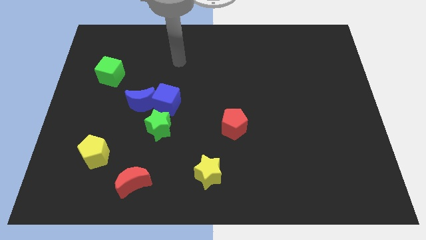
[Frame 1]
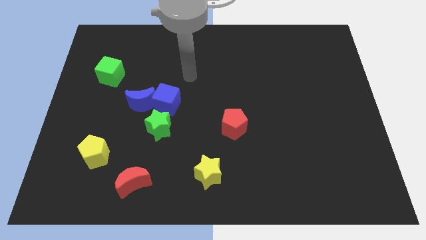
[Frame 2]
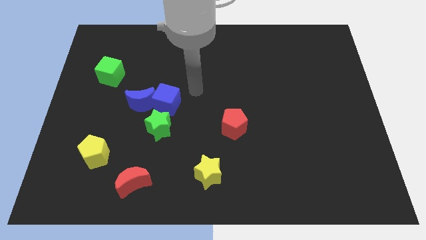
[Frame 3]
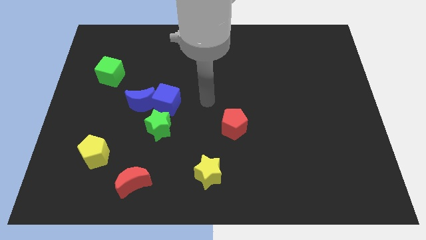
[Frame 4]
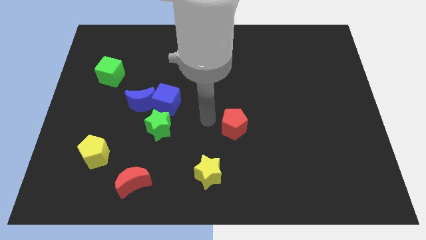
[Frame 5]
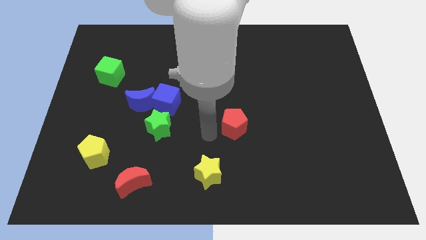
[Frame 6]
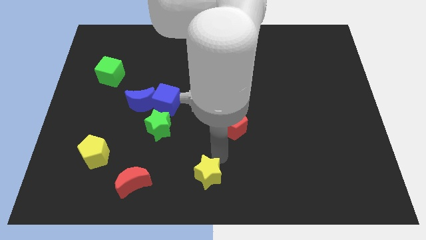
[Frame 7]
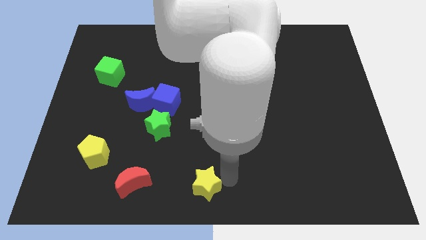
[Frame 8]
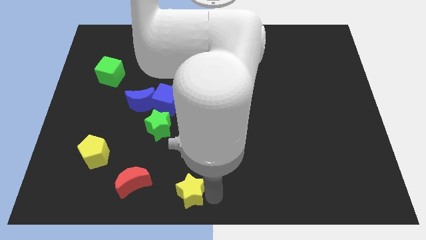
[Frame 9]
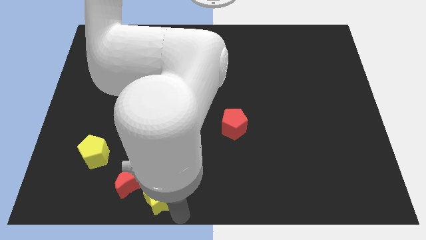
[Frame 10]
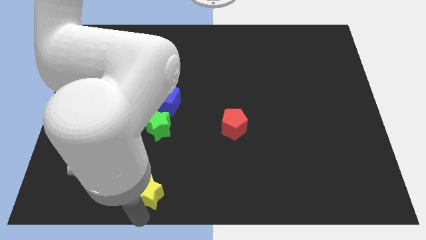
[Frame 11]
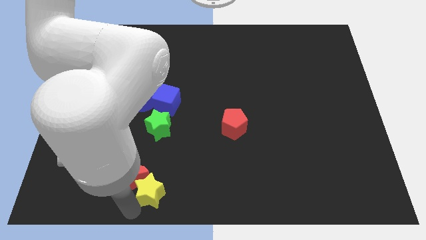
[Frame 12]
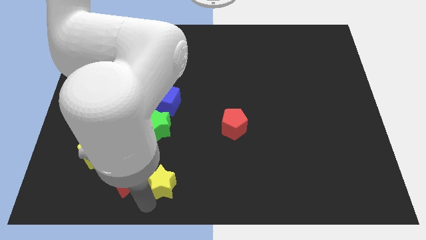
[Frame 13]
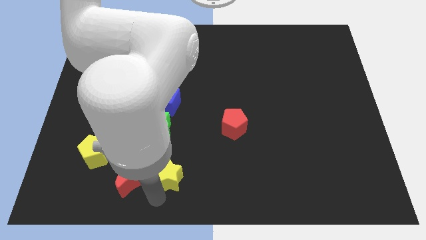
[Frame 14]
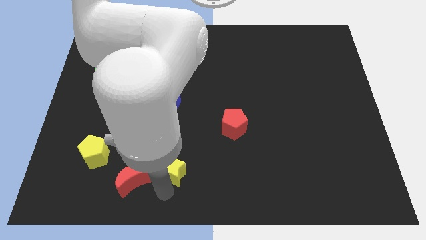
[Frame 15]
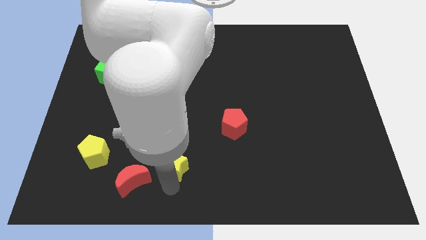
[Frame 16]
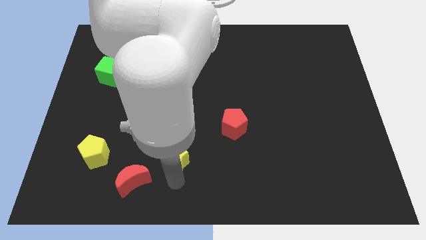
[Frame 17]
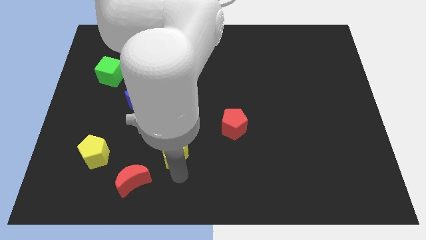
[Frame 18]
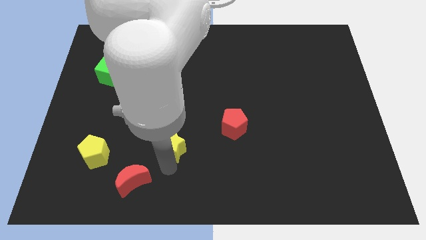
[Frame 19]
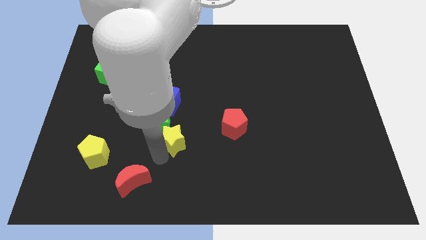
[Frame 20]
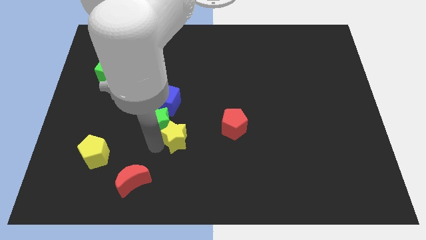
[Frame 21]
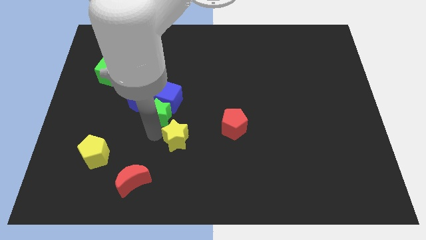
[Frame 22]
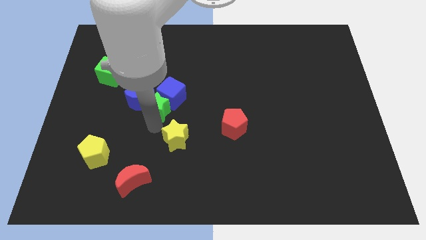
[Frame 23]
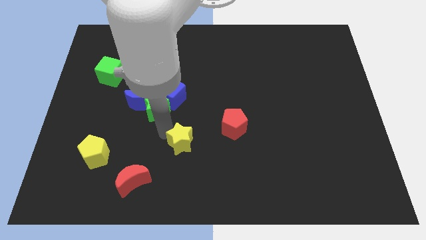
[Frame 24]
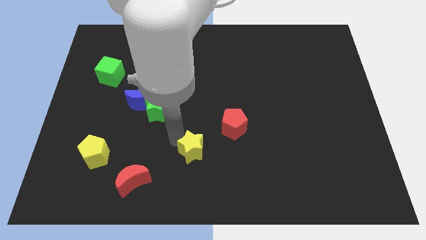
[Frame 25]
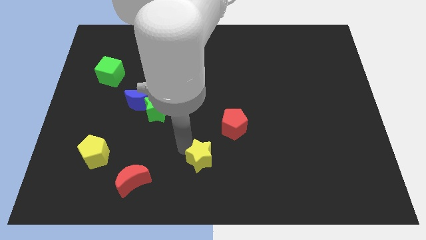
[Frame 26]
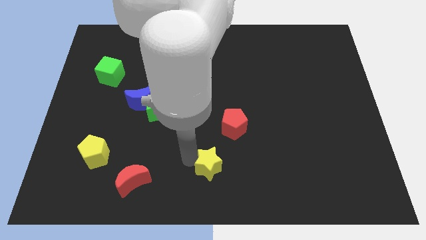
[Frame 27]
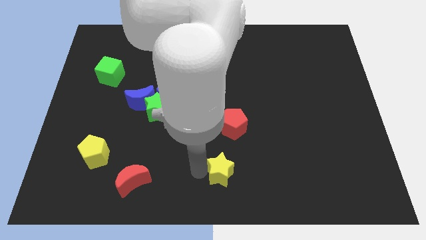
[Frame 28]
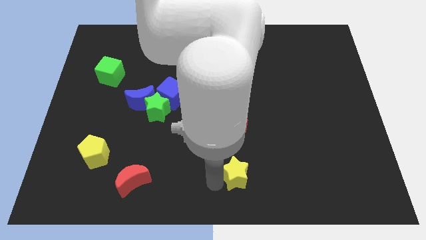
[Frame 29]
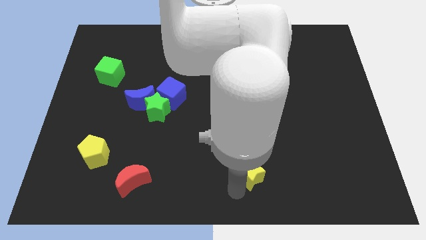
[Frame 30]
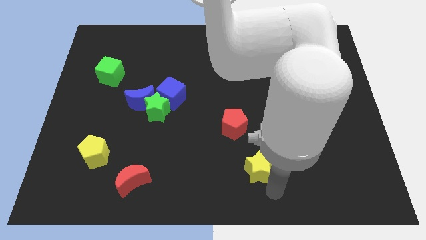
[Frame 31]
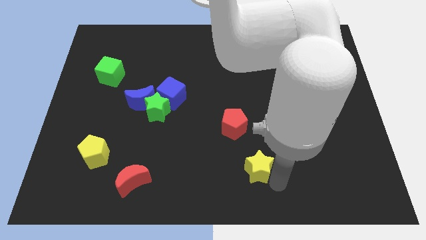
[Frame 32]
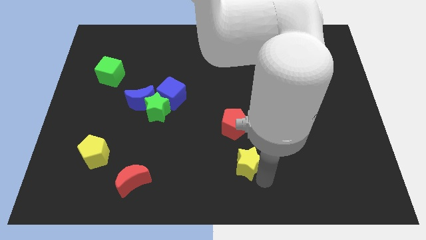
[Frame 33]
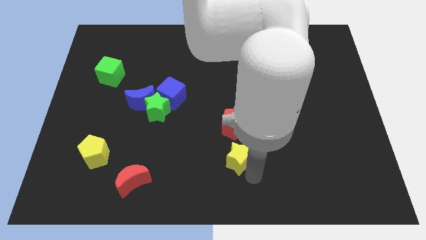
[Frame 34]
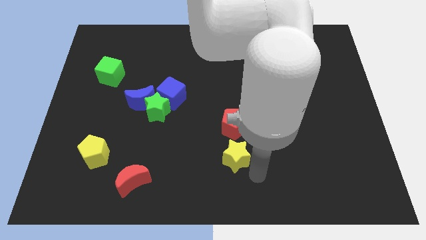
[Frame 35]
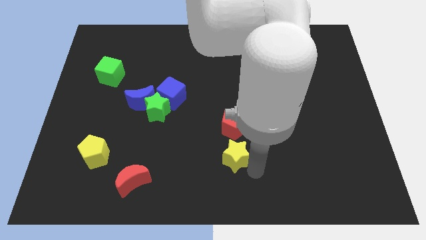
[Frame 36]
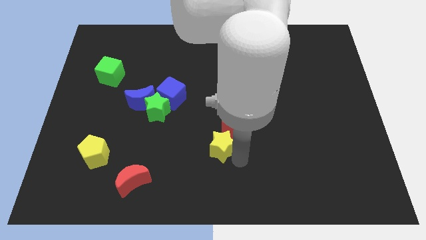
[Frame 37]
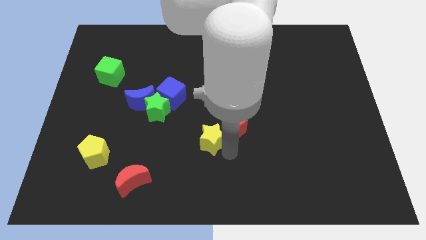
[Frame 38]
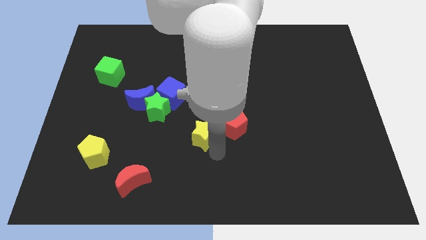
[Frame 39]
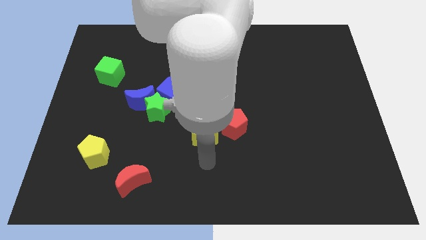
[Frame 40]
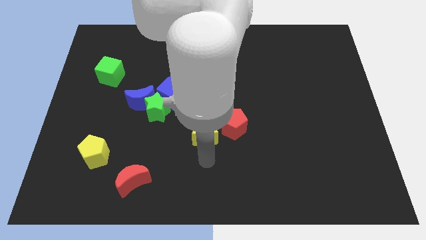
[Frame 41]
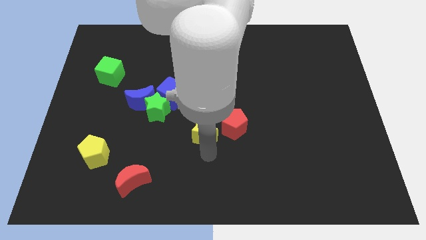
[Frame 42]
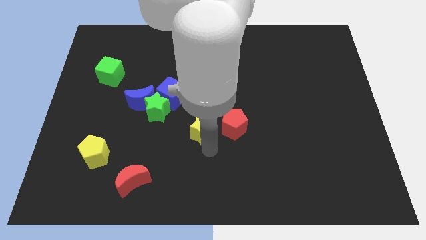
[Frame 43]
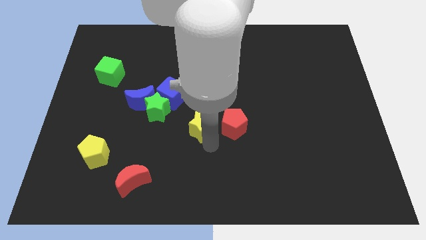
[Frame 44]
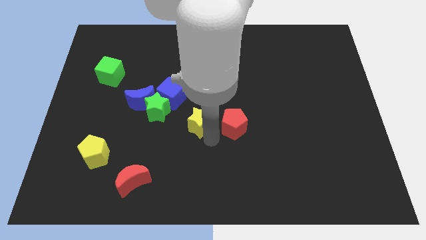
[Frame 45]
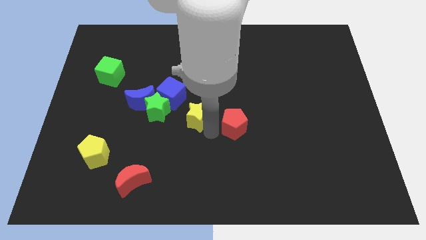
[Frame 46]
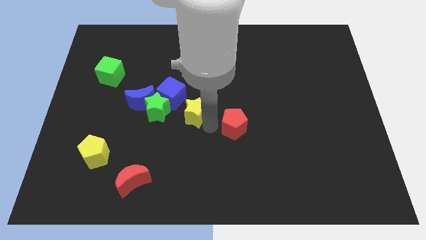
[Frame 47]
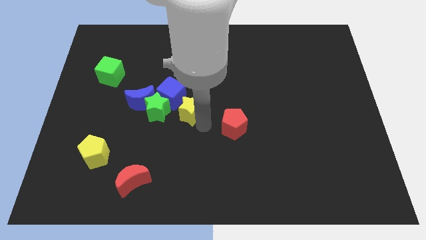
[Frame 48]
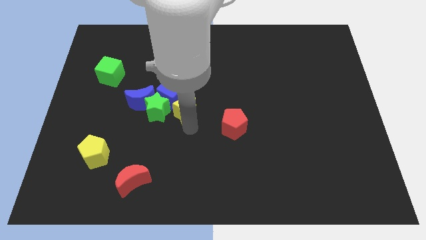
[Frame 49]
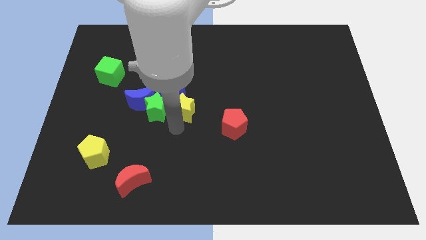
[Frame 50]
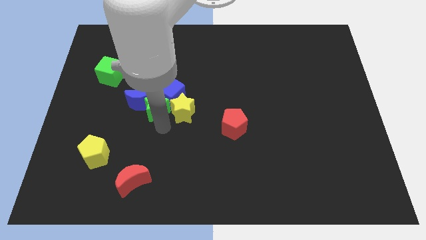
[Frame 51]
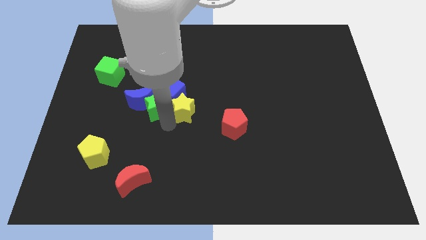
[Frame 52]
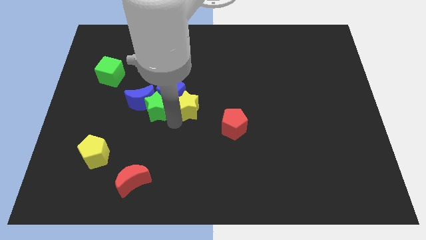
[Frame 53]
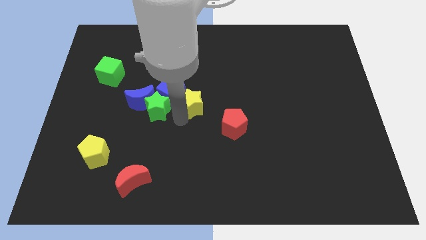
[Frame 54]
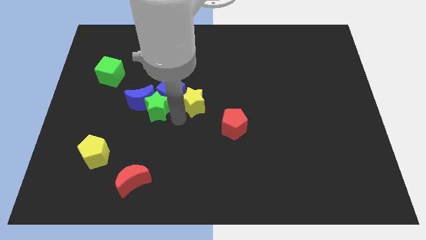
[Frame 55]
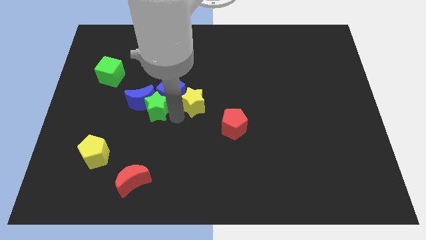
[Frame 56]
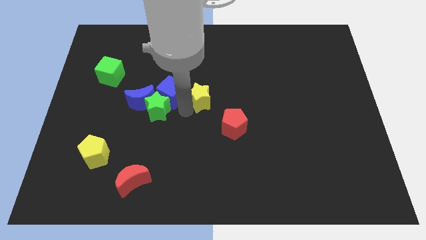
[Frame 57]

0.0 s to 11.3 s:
push the yellow star upwards

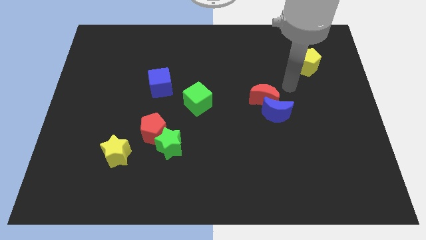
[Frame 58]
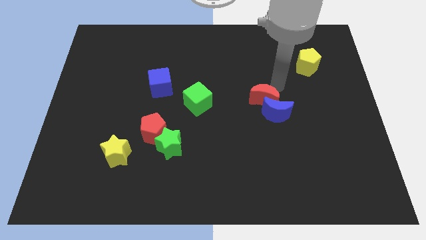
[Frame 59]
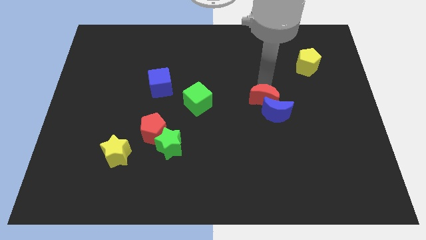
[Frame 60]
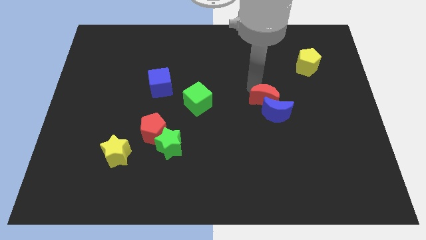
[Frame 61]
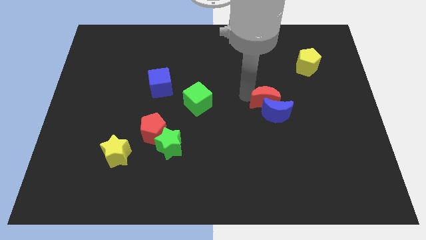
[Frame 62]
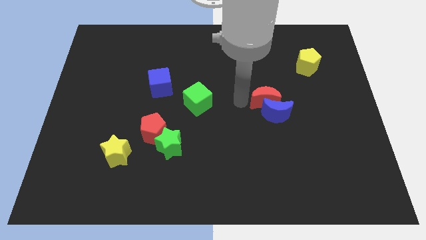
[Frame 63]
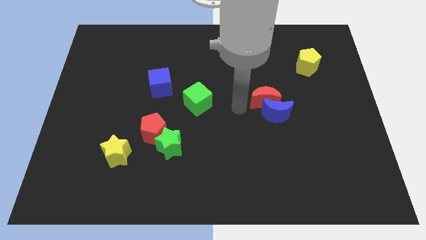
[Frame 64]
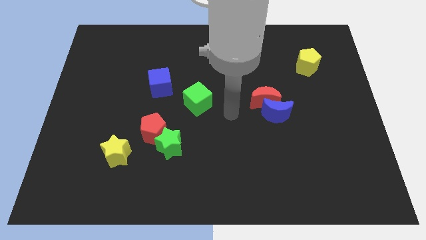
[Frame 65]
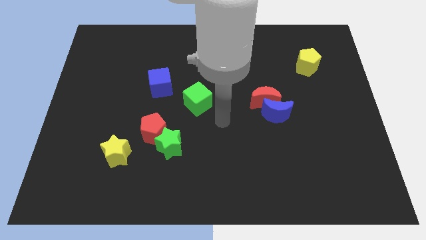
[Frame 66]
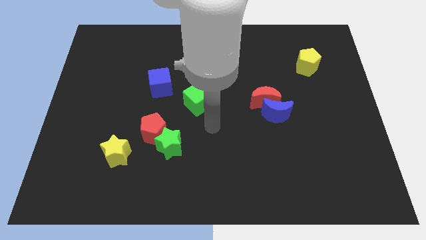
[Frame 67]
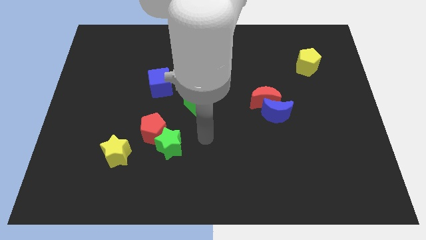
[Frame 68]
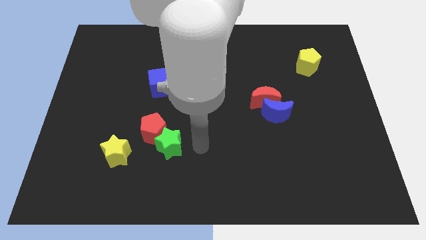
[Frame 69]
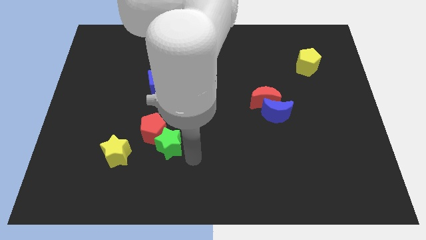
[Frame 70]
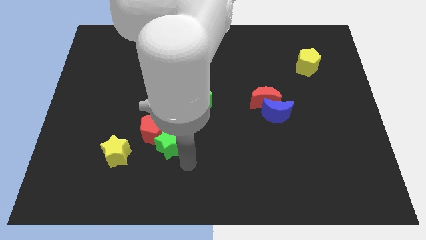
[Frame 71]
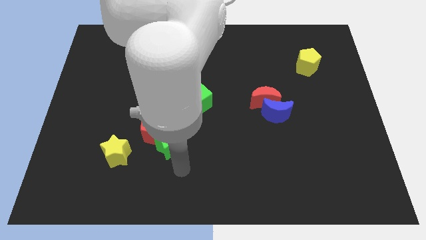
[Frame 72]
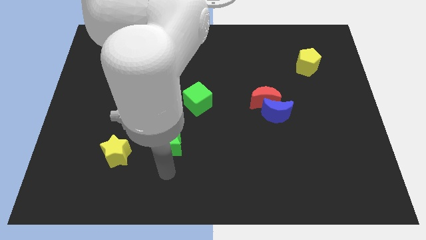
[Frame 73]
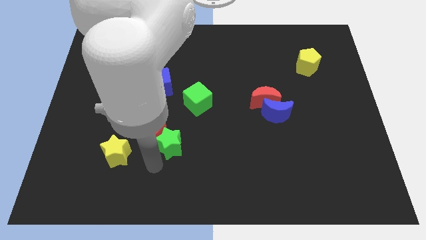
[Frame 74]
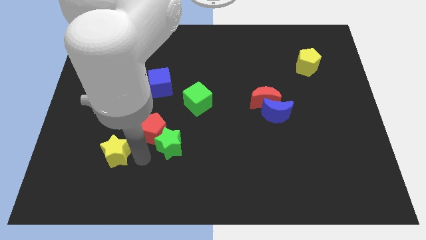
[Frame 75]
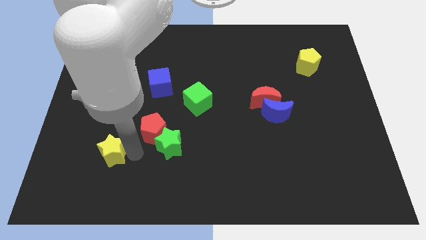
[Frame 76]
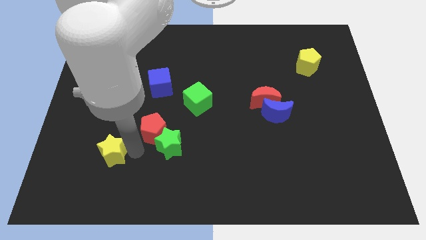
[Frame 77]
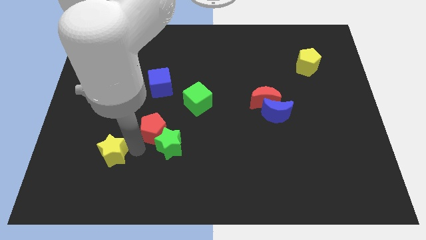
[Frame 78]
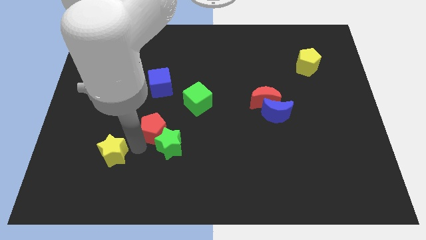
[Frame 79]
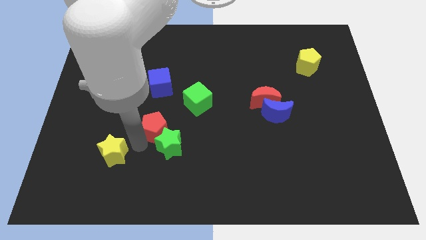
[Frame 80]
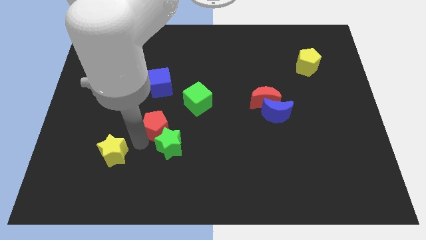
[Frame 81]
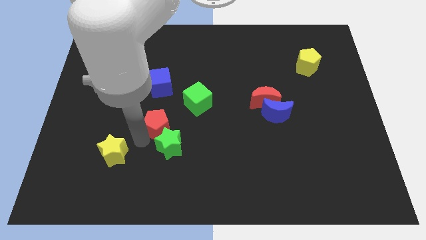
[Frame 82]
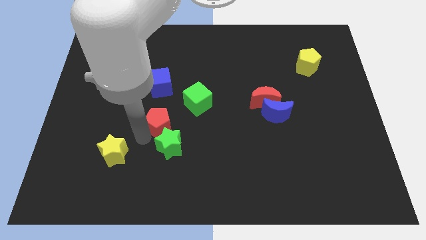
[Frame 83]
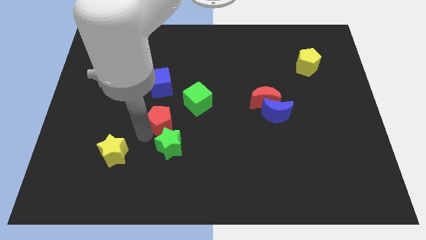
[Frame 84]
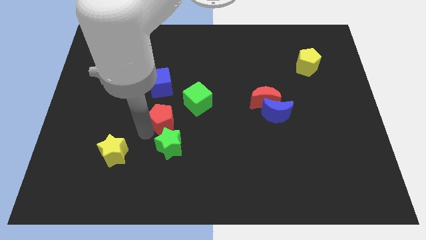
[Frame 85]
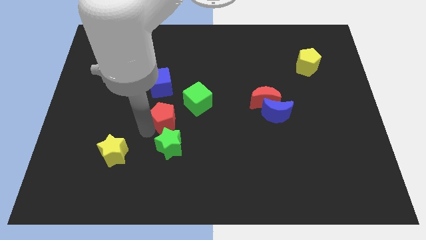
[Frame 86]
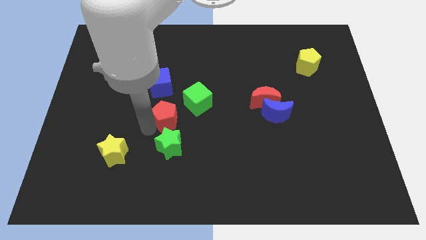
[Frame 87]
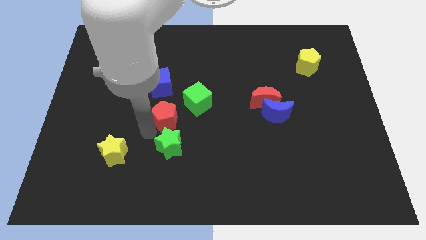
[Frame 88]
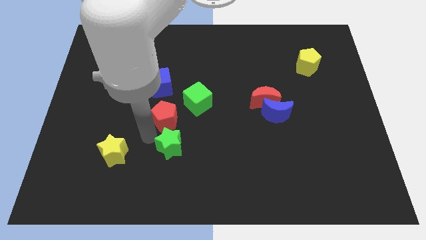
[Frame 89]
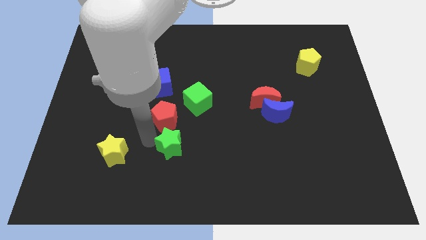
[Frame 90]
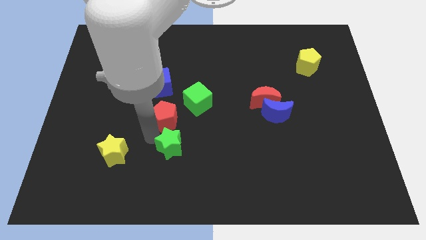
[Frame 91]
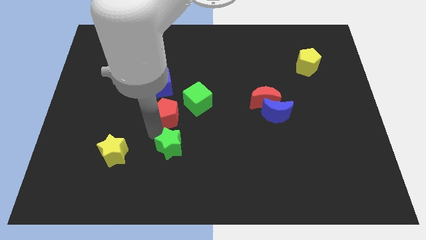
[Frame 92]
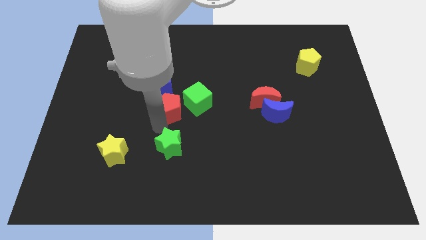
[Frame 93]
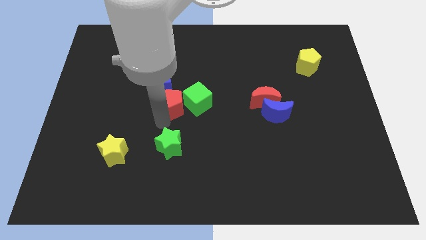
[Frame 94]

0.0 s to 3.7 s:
slightly slide the red pentagon up
